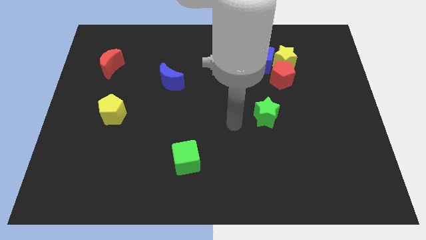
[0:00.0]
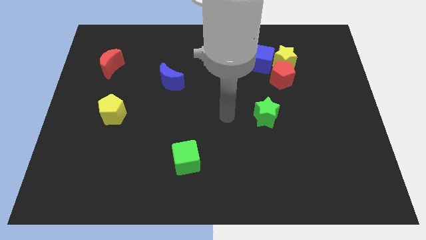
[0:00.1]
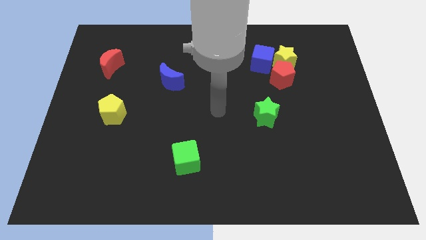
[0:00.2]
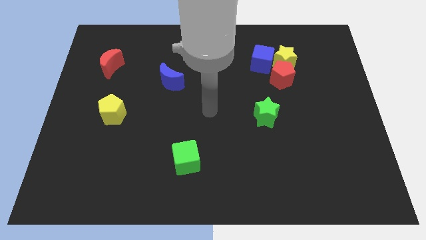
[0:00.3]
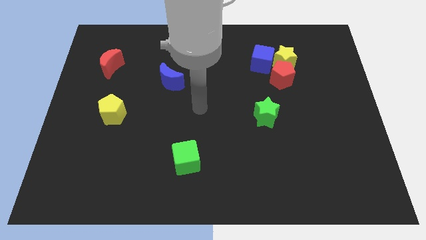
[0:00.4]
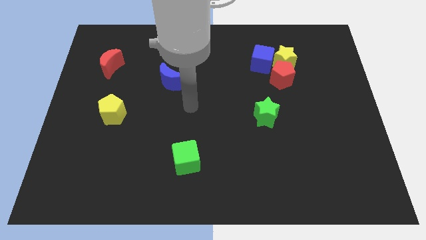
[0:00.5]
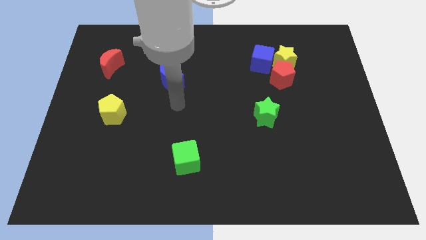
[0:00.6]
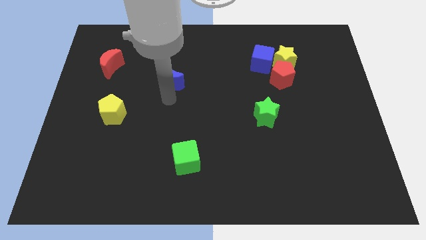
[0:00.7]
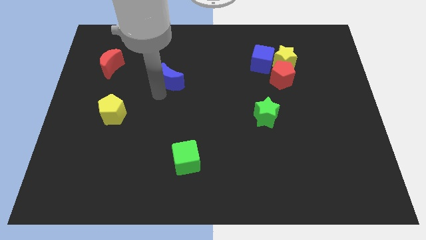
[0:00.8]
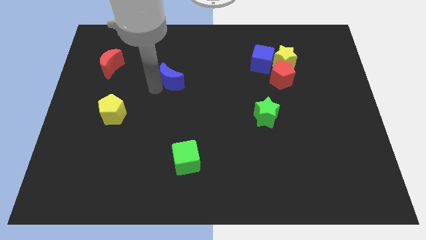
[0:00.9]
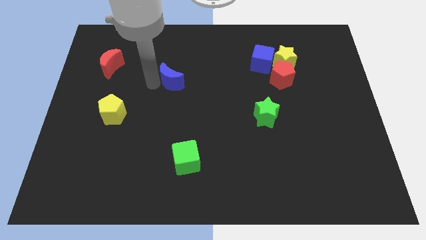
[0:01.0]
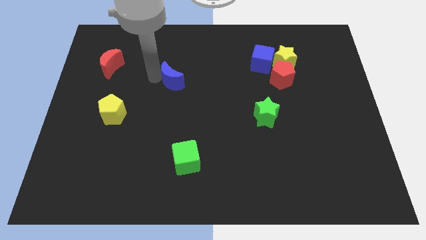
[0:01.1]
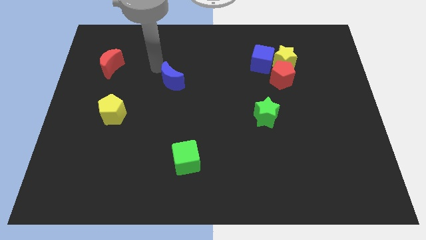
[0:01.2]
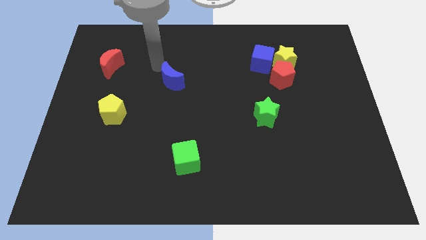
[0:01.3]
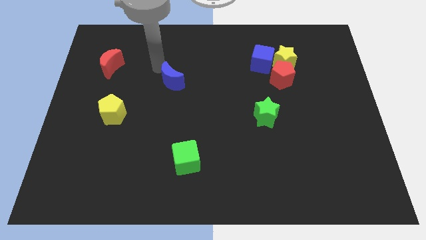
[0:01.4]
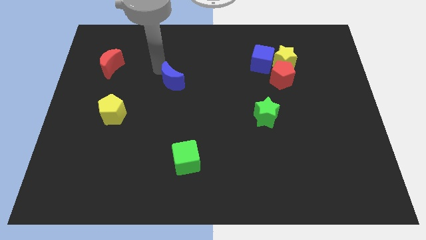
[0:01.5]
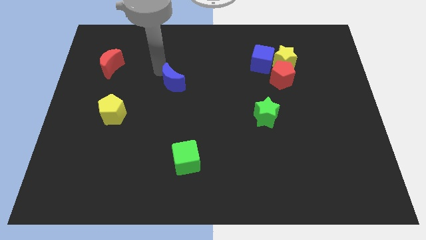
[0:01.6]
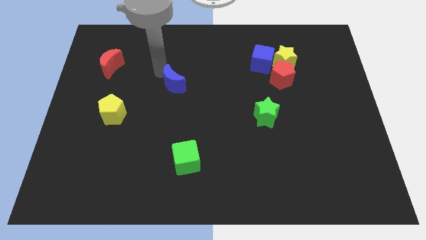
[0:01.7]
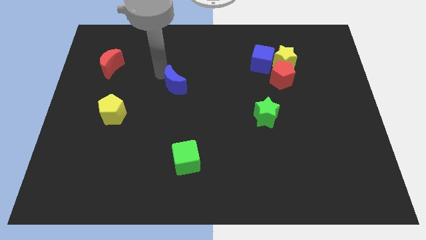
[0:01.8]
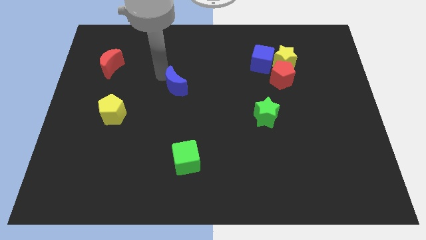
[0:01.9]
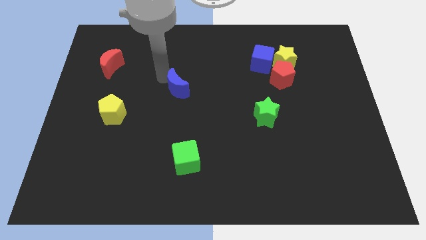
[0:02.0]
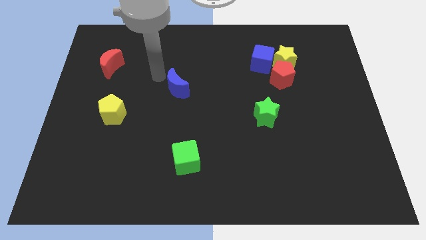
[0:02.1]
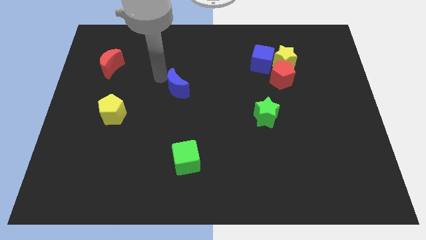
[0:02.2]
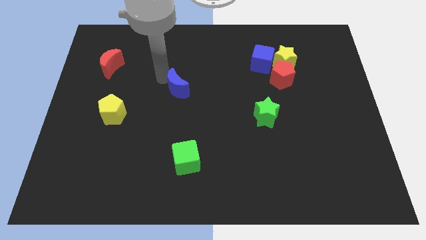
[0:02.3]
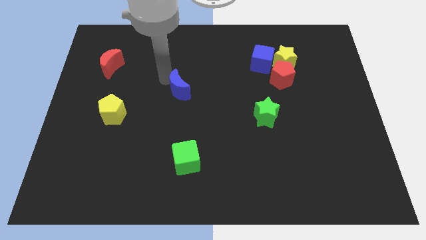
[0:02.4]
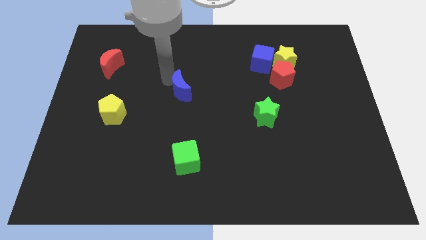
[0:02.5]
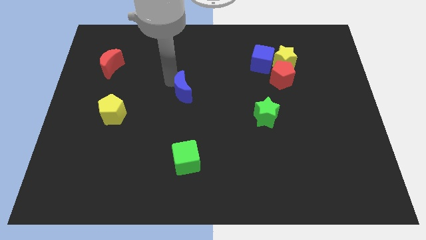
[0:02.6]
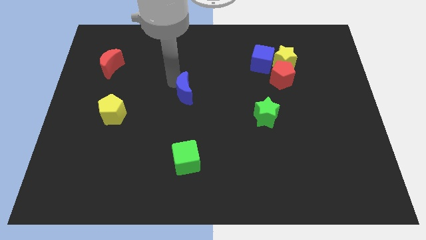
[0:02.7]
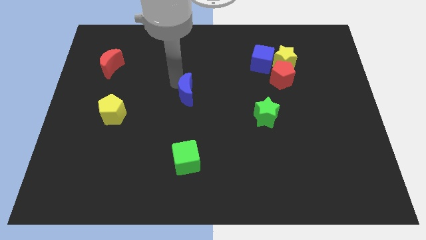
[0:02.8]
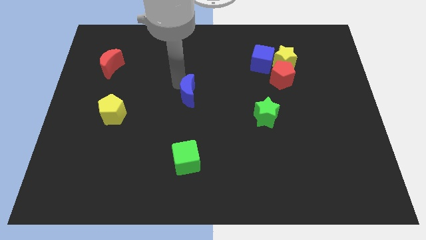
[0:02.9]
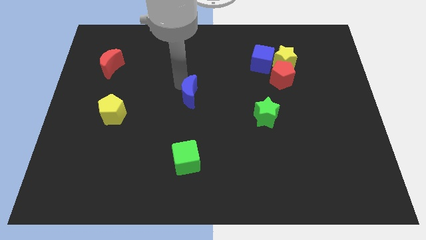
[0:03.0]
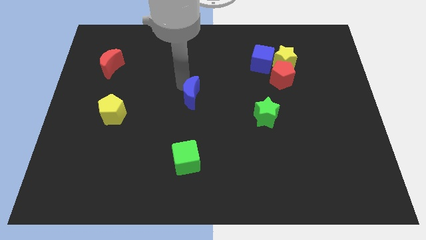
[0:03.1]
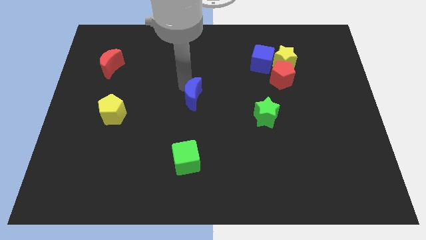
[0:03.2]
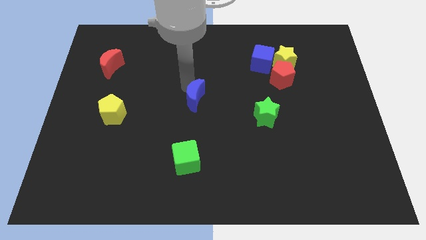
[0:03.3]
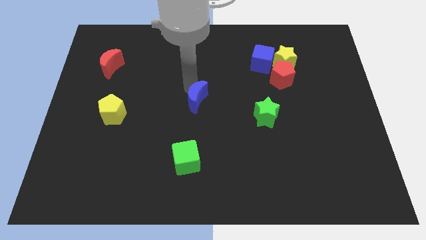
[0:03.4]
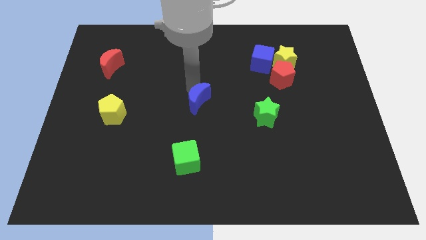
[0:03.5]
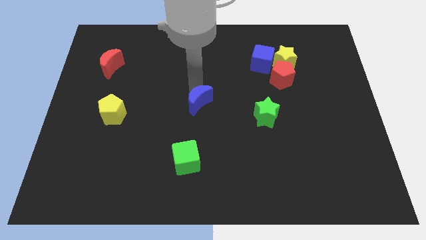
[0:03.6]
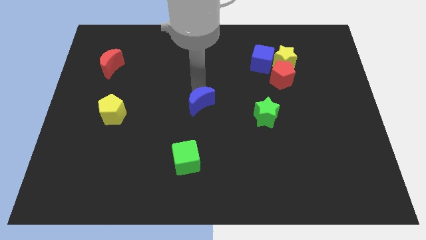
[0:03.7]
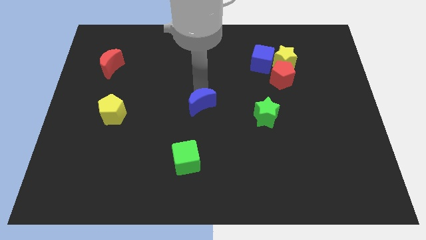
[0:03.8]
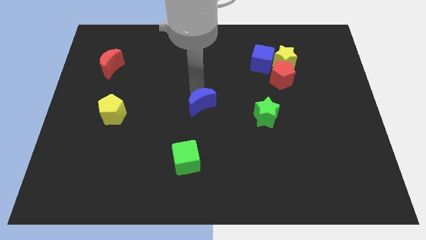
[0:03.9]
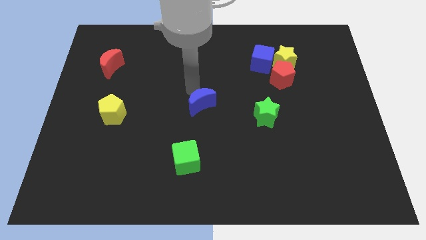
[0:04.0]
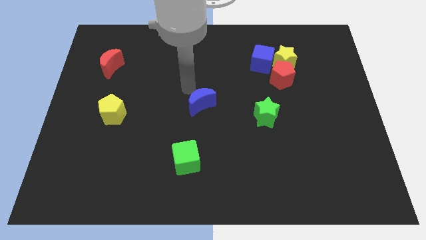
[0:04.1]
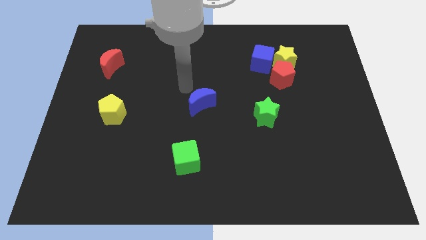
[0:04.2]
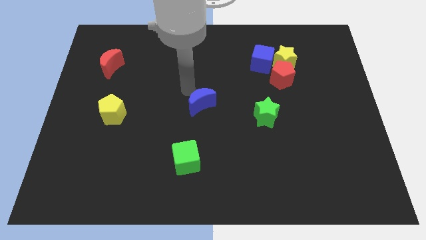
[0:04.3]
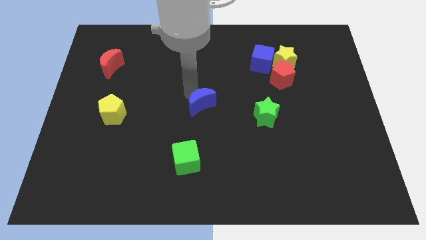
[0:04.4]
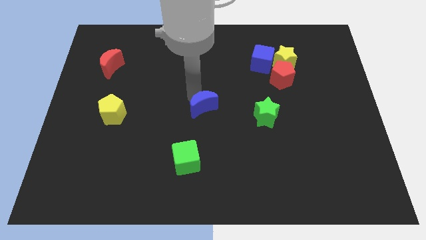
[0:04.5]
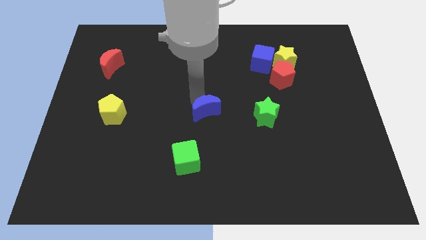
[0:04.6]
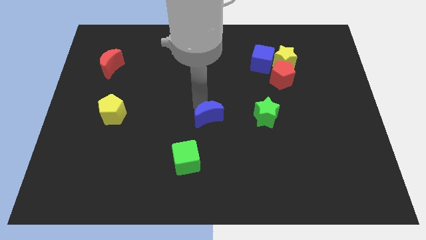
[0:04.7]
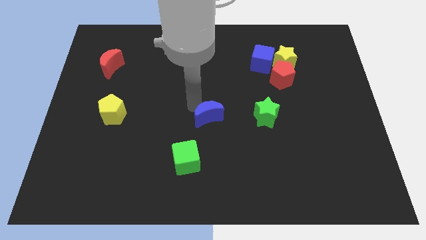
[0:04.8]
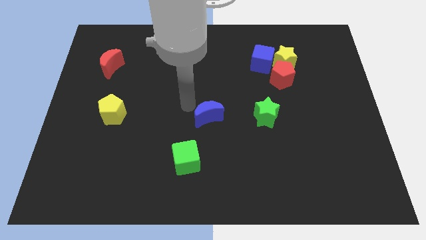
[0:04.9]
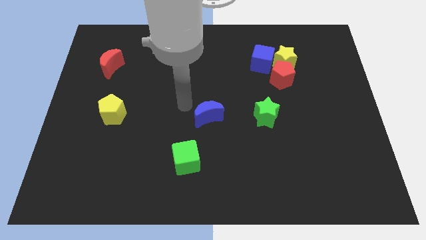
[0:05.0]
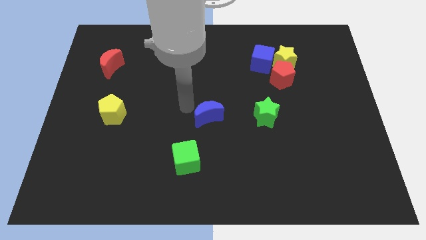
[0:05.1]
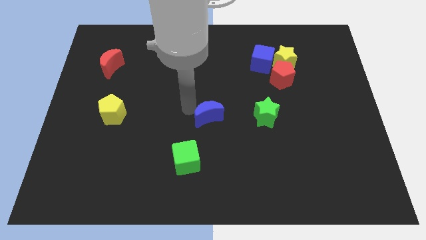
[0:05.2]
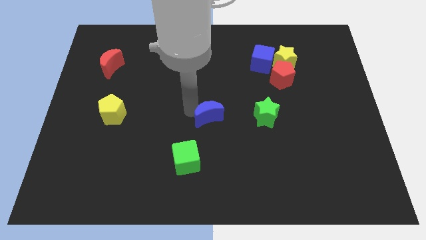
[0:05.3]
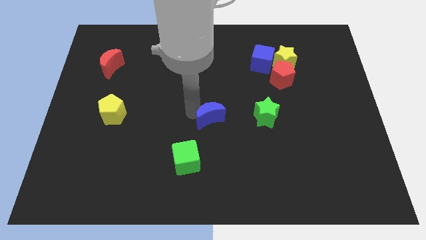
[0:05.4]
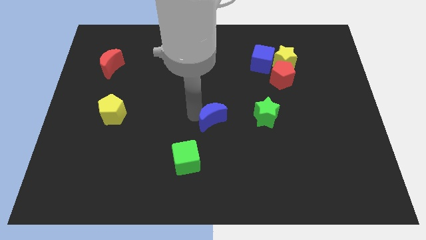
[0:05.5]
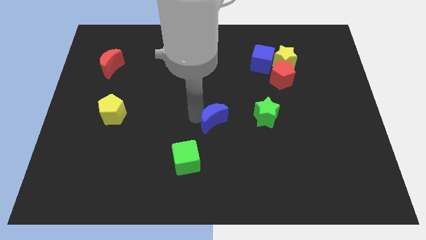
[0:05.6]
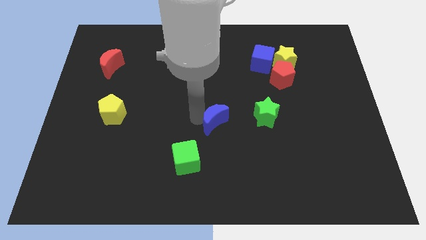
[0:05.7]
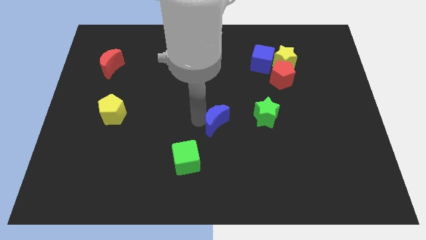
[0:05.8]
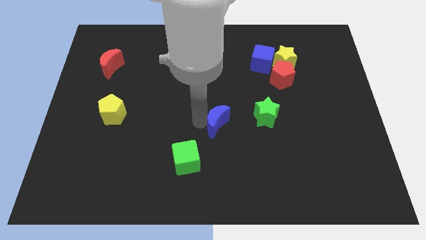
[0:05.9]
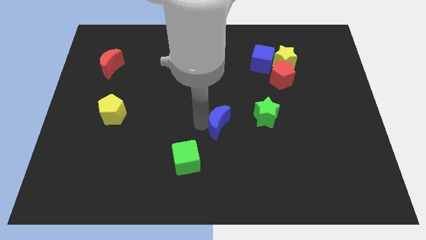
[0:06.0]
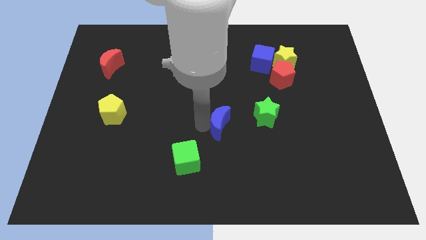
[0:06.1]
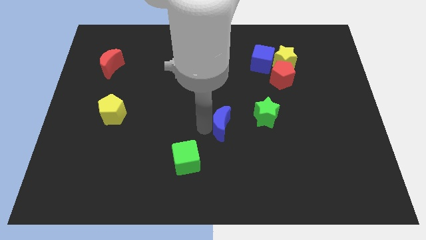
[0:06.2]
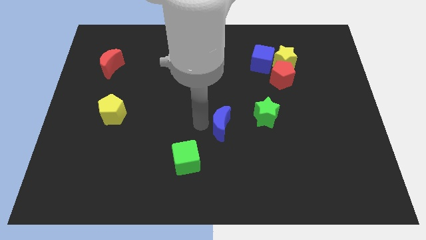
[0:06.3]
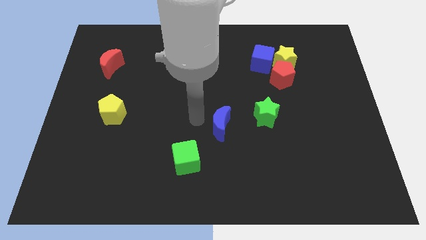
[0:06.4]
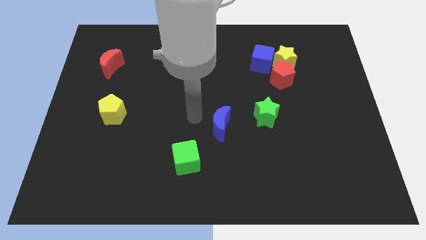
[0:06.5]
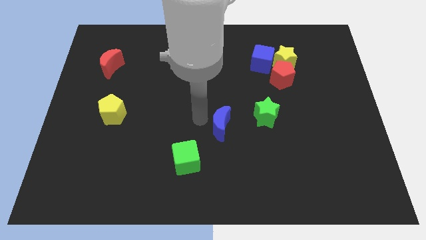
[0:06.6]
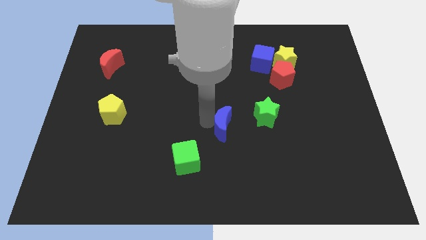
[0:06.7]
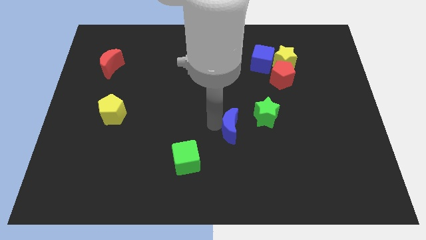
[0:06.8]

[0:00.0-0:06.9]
slide the blue moon down and to the right

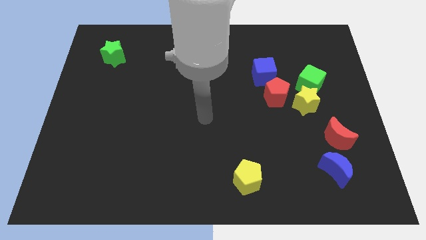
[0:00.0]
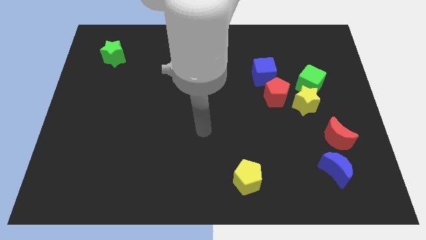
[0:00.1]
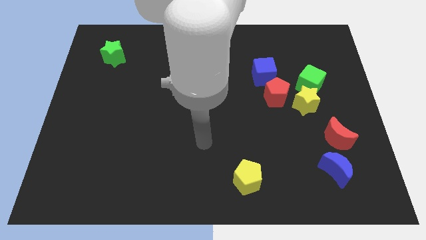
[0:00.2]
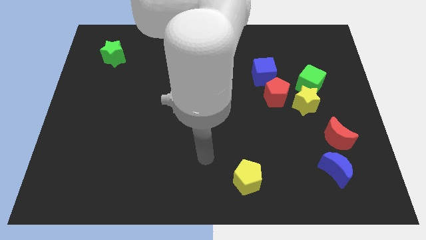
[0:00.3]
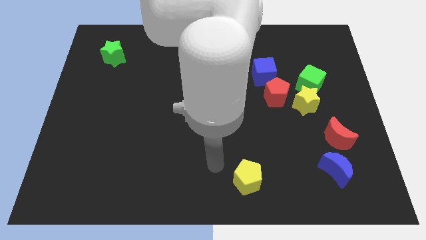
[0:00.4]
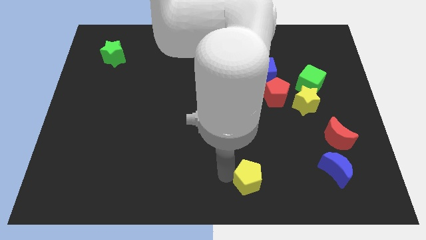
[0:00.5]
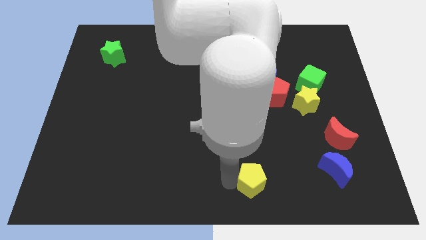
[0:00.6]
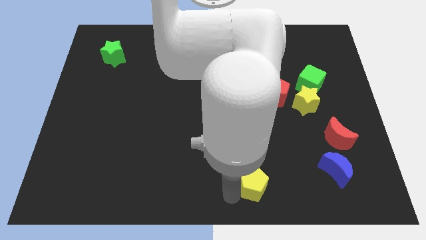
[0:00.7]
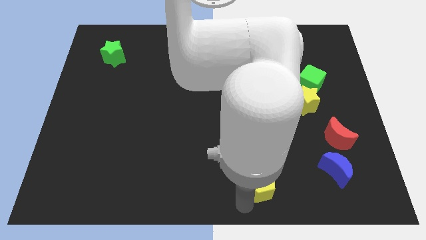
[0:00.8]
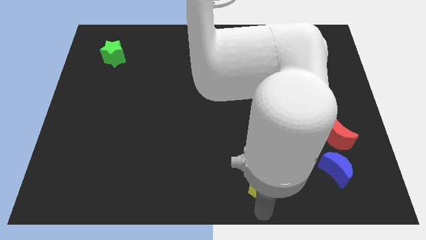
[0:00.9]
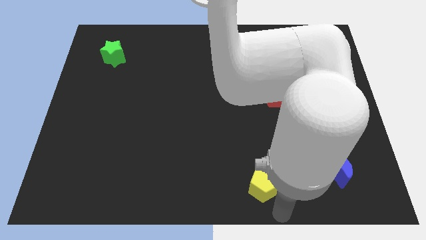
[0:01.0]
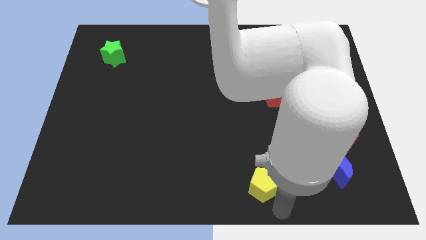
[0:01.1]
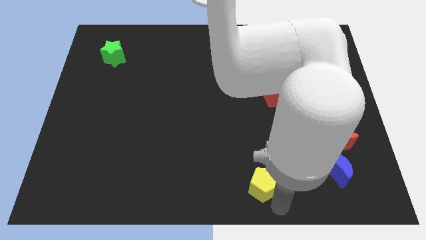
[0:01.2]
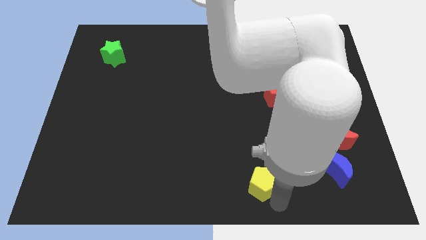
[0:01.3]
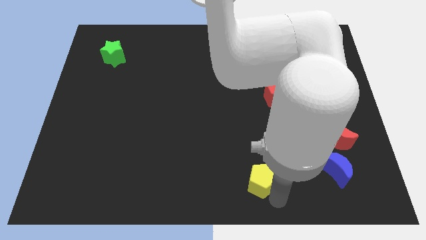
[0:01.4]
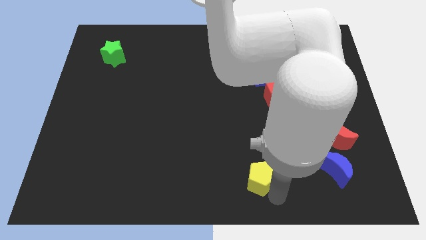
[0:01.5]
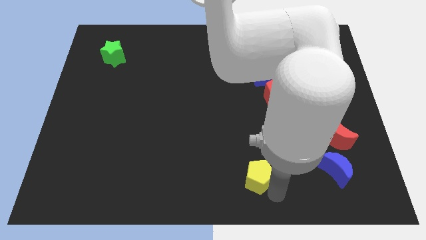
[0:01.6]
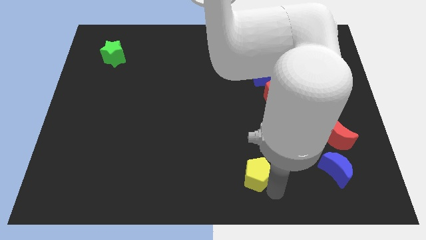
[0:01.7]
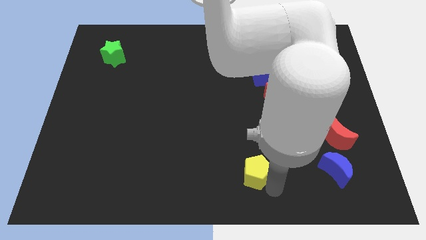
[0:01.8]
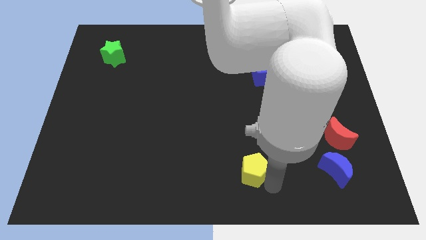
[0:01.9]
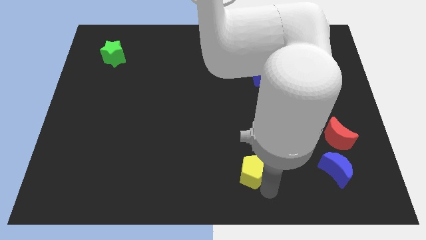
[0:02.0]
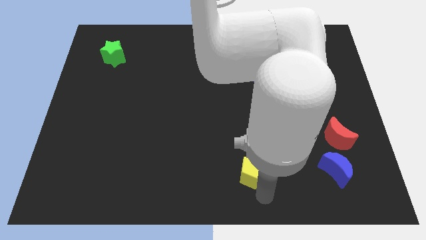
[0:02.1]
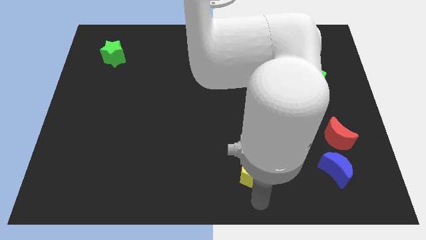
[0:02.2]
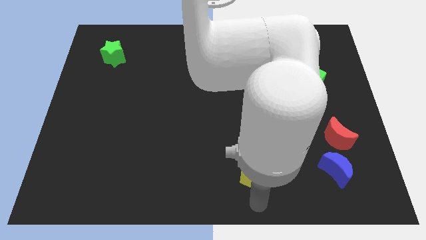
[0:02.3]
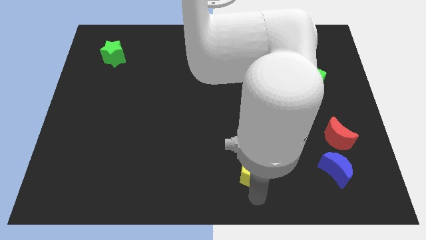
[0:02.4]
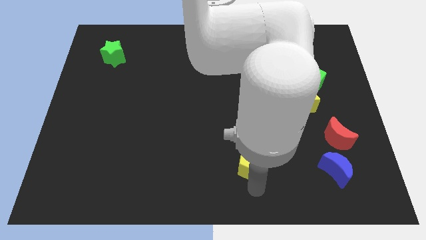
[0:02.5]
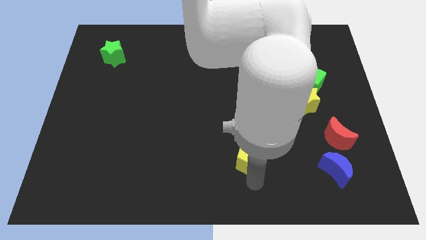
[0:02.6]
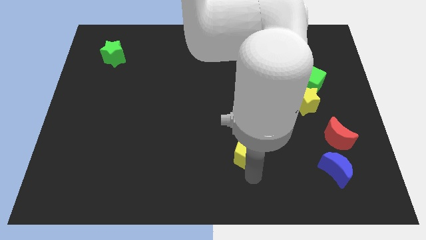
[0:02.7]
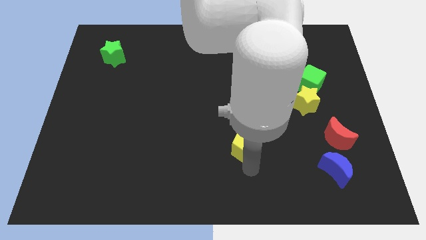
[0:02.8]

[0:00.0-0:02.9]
slide the yellow pentagon upwards a bit
